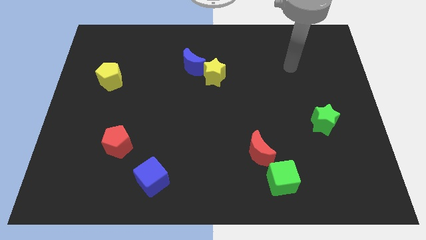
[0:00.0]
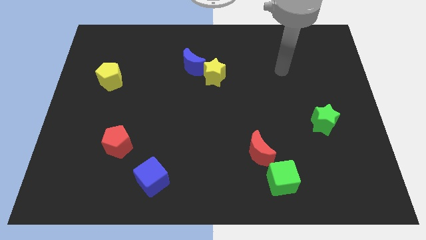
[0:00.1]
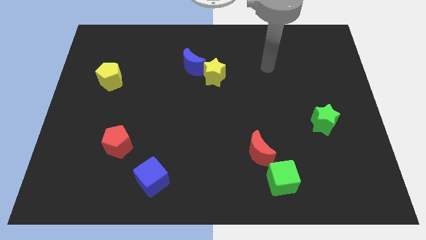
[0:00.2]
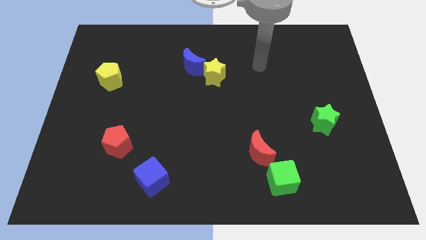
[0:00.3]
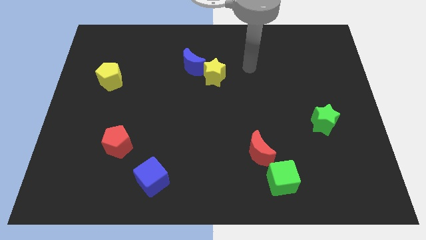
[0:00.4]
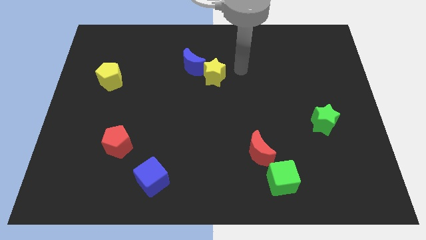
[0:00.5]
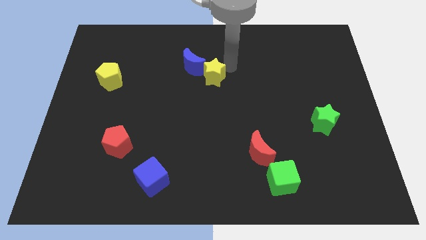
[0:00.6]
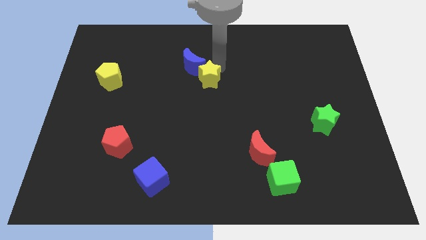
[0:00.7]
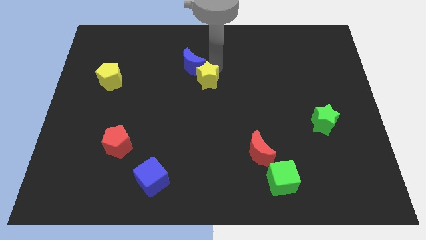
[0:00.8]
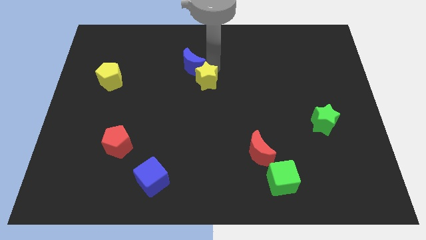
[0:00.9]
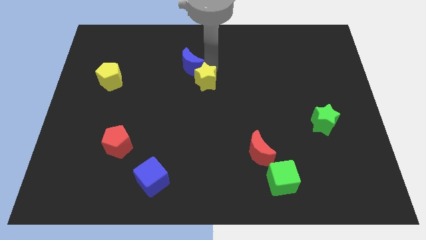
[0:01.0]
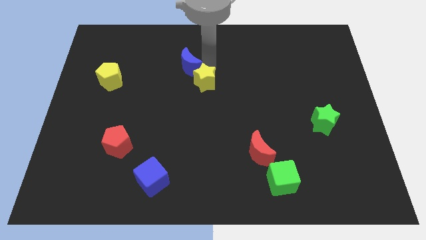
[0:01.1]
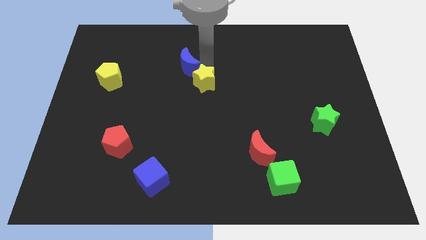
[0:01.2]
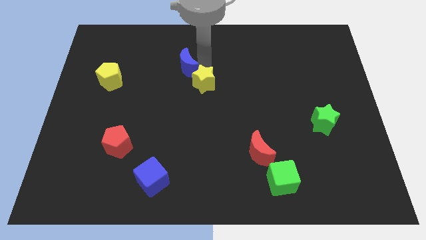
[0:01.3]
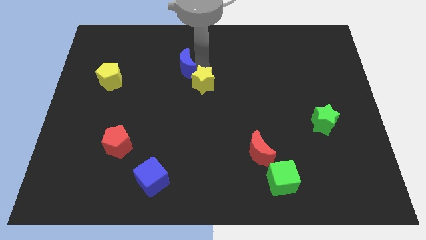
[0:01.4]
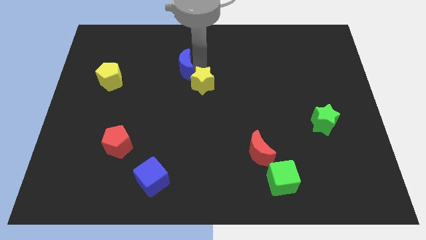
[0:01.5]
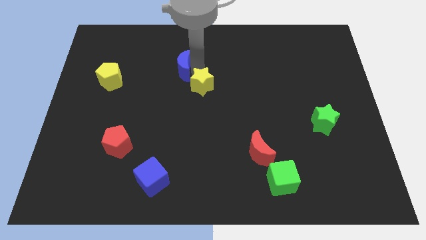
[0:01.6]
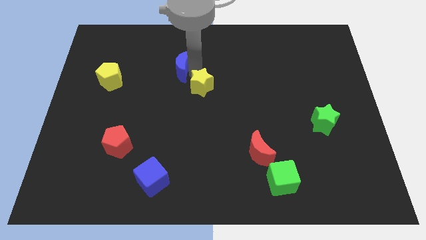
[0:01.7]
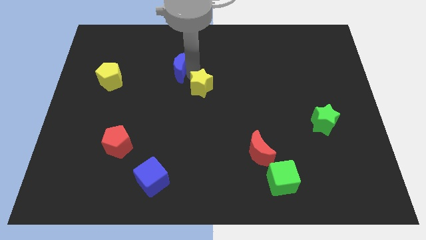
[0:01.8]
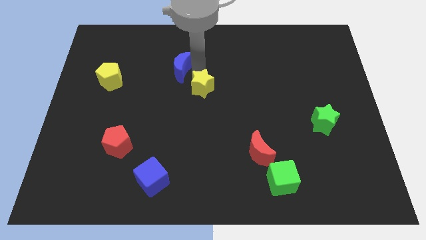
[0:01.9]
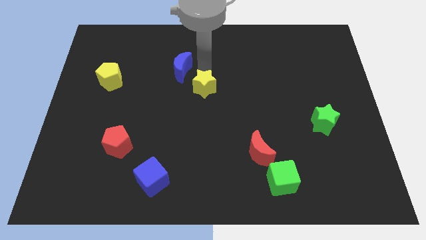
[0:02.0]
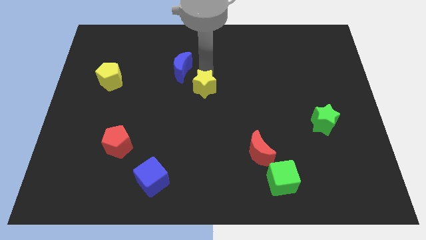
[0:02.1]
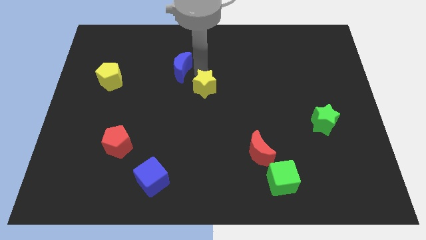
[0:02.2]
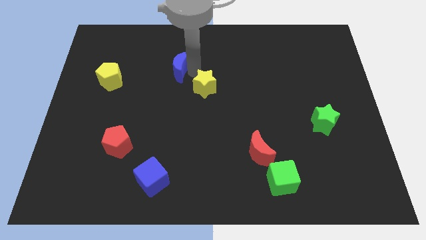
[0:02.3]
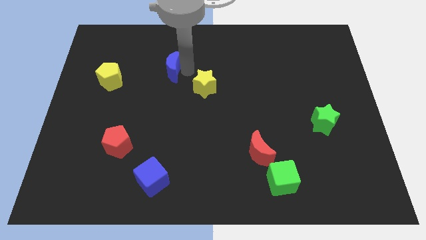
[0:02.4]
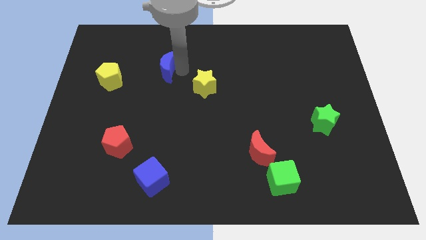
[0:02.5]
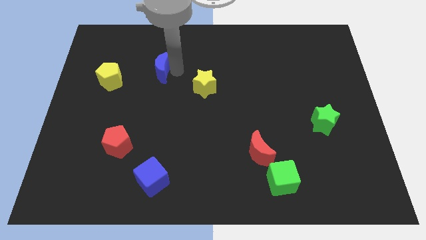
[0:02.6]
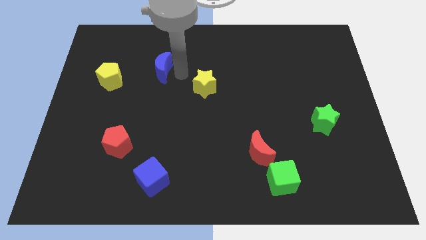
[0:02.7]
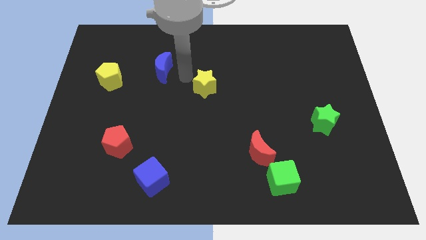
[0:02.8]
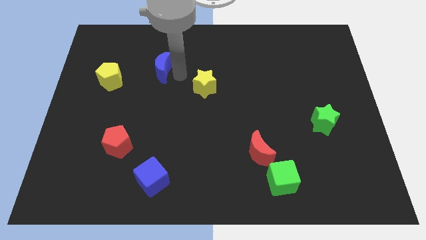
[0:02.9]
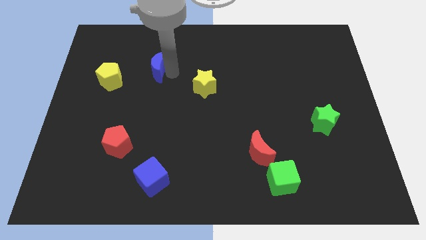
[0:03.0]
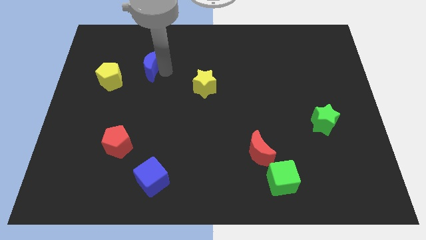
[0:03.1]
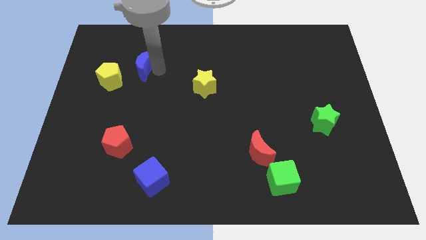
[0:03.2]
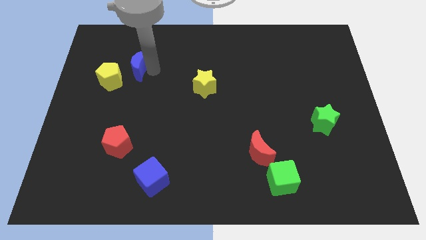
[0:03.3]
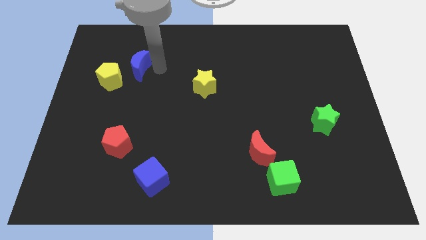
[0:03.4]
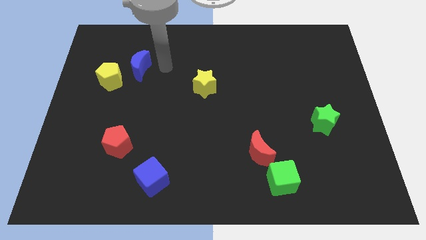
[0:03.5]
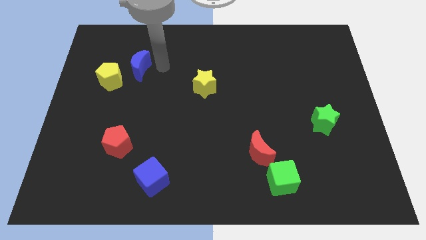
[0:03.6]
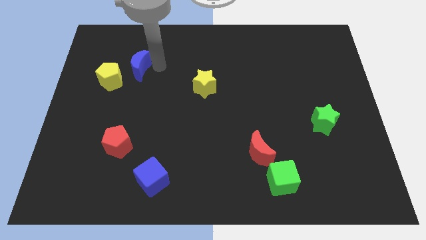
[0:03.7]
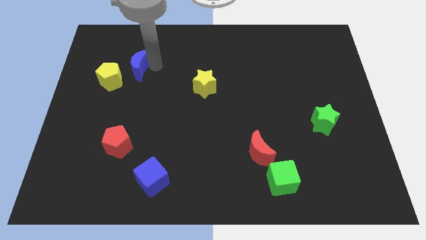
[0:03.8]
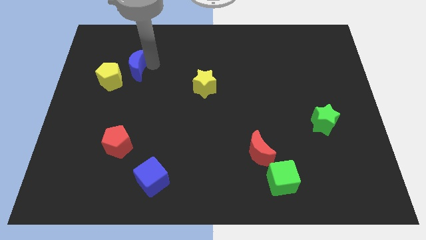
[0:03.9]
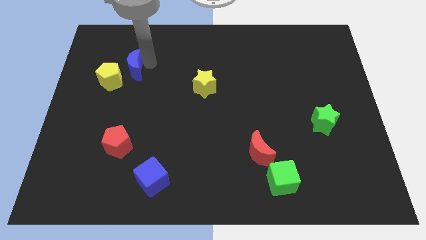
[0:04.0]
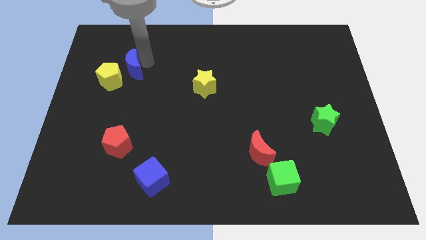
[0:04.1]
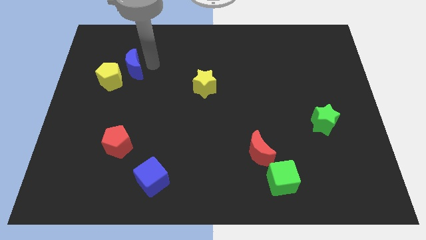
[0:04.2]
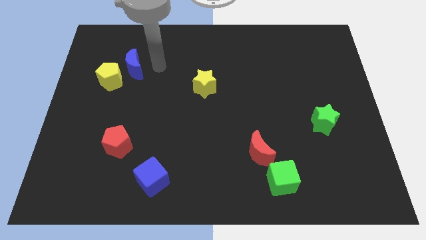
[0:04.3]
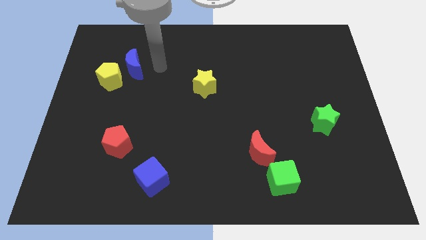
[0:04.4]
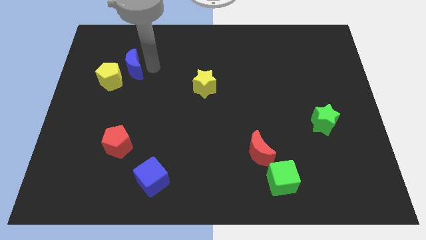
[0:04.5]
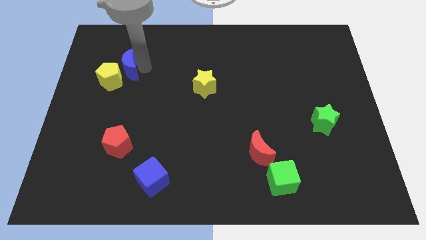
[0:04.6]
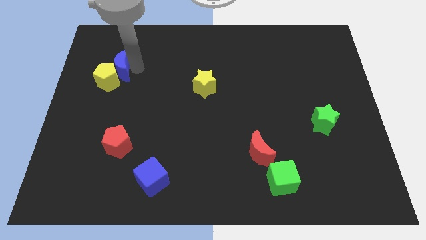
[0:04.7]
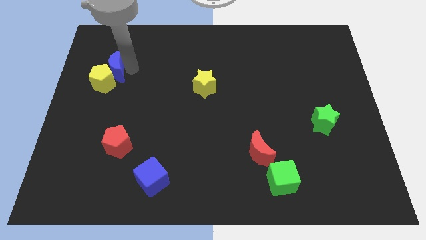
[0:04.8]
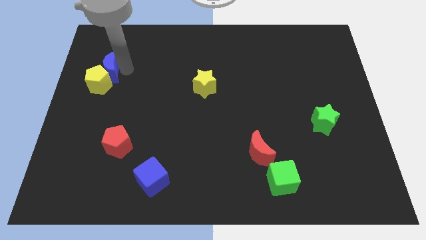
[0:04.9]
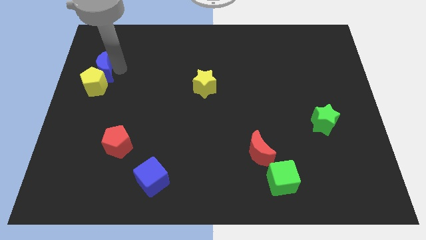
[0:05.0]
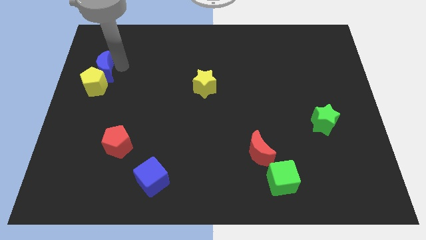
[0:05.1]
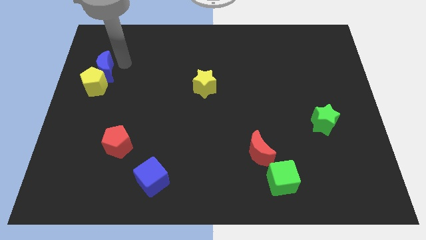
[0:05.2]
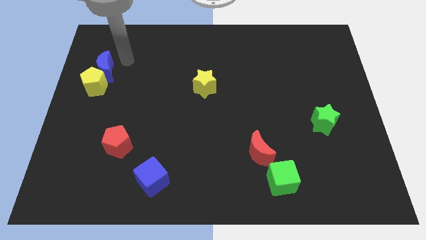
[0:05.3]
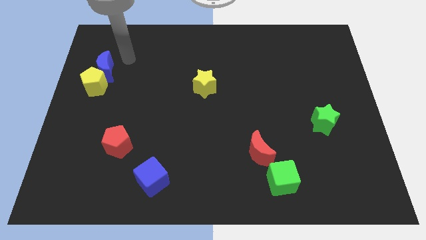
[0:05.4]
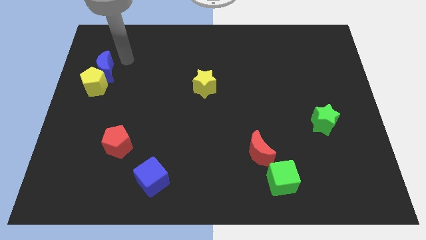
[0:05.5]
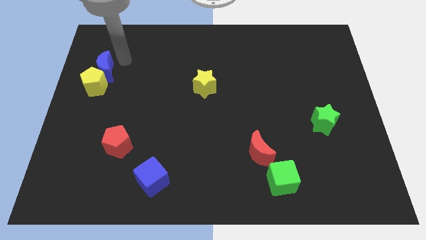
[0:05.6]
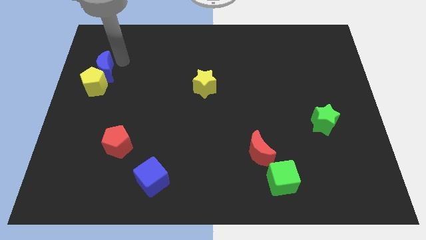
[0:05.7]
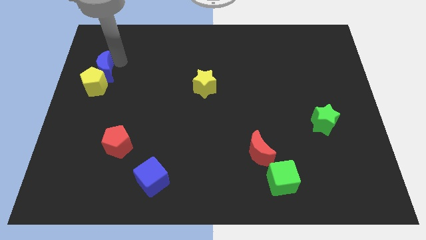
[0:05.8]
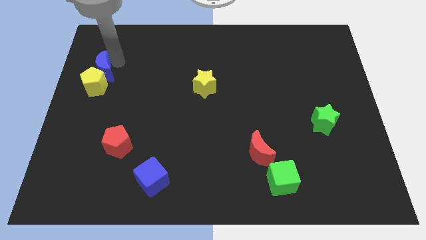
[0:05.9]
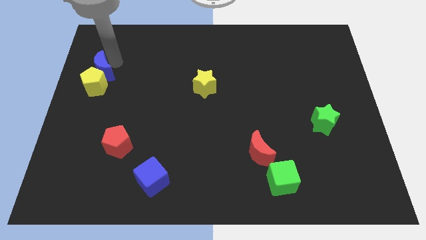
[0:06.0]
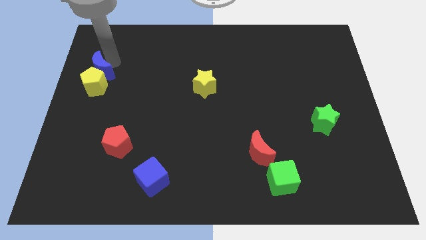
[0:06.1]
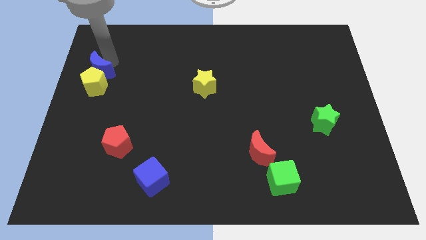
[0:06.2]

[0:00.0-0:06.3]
move the blue moon to the center left
